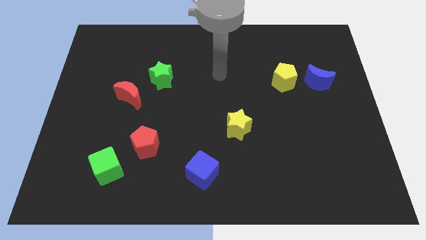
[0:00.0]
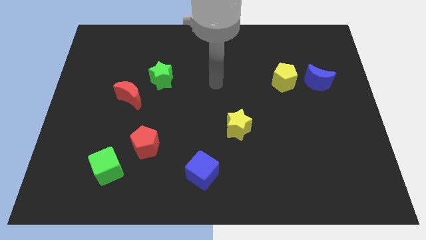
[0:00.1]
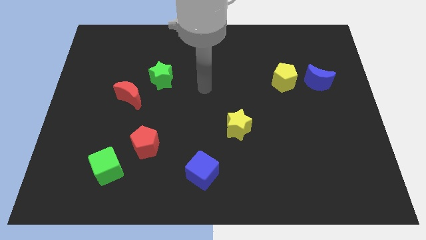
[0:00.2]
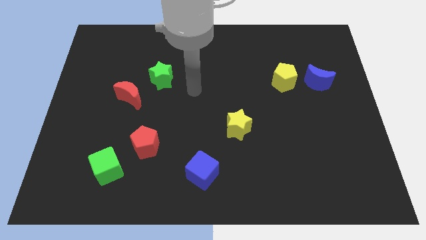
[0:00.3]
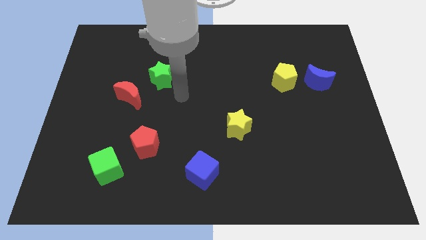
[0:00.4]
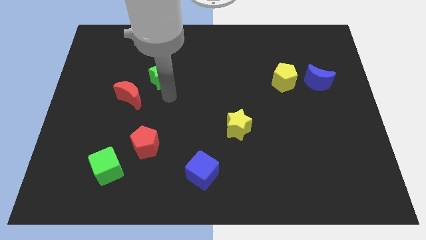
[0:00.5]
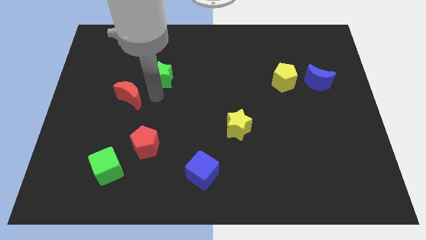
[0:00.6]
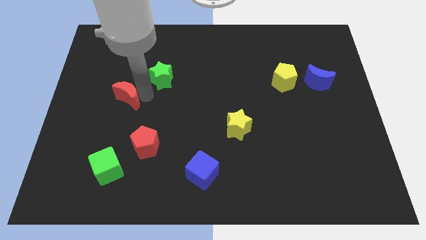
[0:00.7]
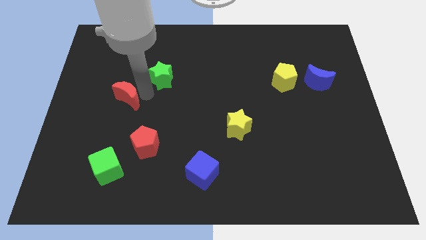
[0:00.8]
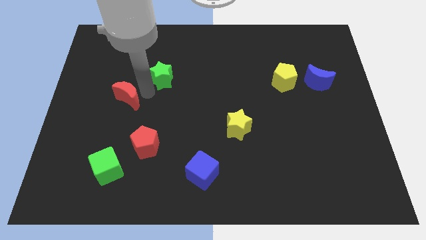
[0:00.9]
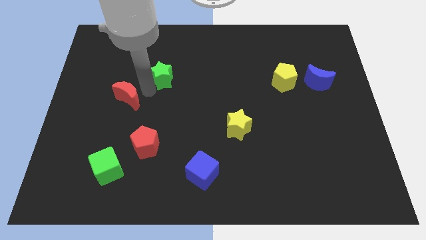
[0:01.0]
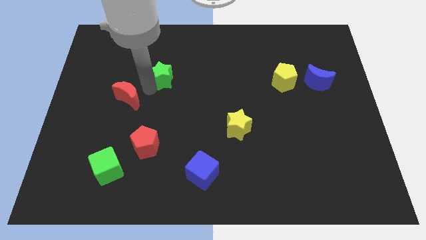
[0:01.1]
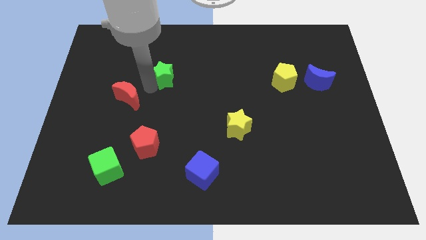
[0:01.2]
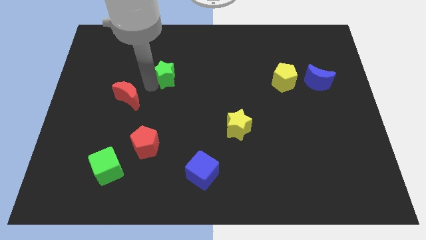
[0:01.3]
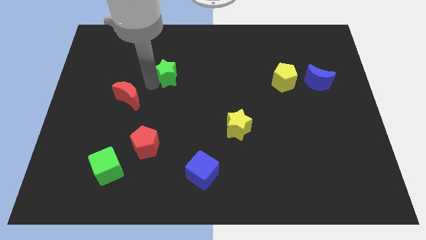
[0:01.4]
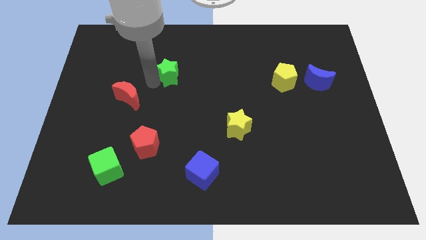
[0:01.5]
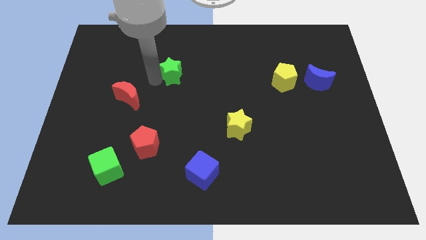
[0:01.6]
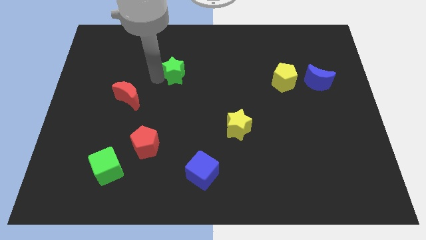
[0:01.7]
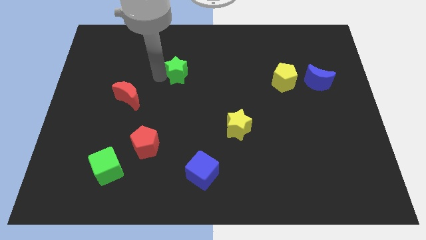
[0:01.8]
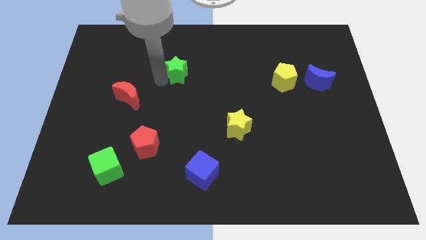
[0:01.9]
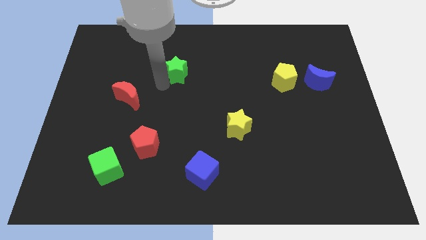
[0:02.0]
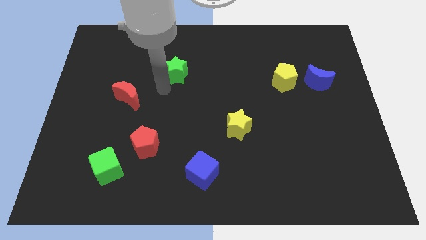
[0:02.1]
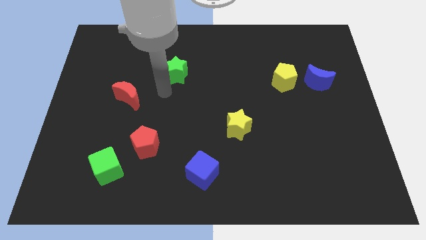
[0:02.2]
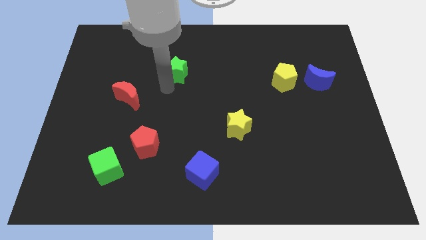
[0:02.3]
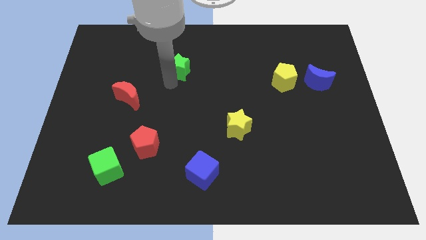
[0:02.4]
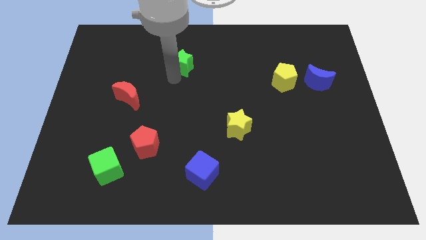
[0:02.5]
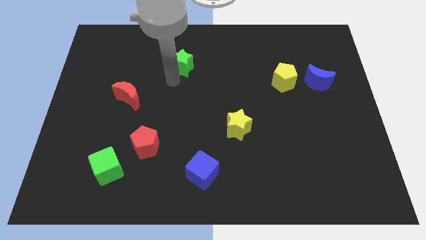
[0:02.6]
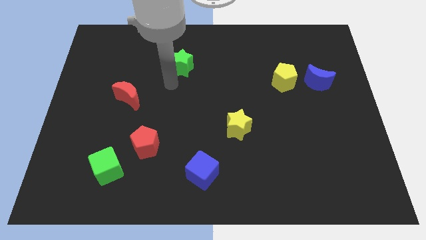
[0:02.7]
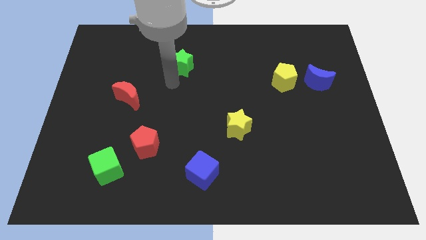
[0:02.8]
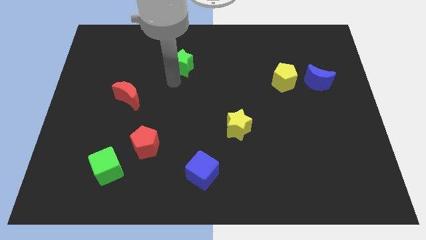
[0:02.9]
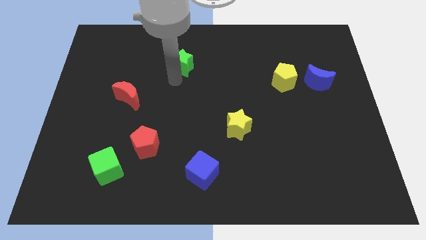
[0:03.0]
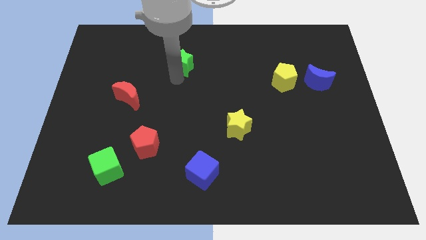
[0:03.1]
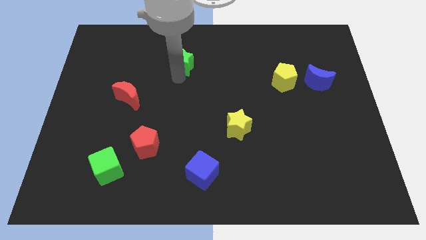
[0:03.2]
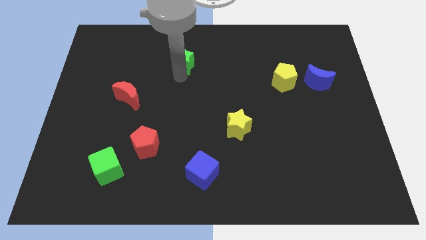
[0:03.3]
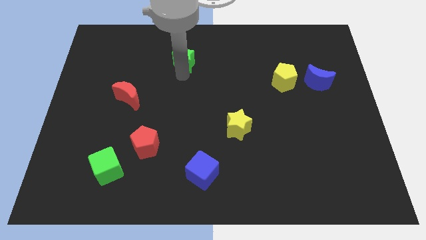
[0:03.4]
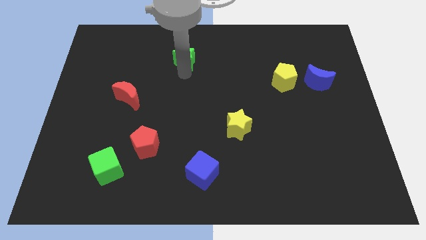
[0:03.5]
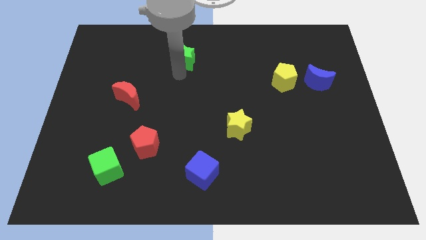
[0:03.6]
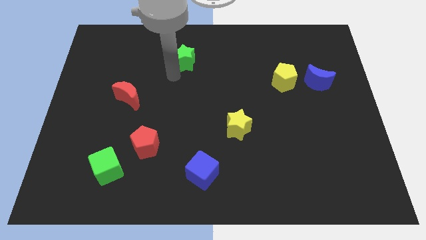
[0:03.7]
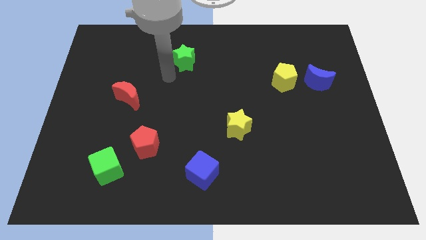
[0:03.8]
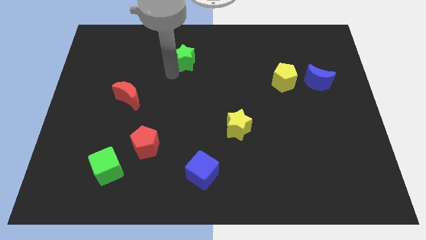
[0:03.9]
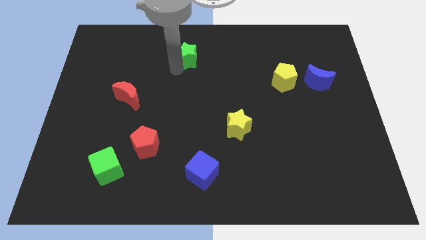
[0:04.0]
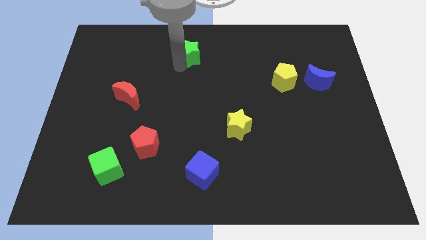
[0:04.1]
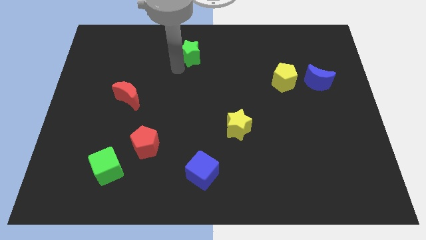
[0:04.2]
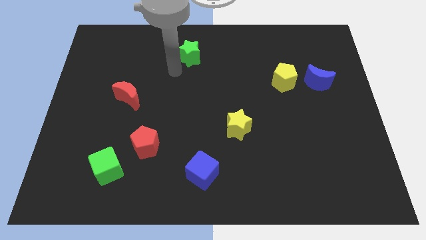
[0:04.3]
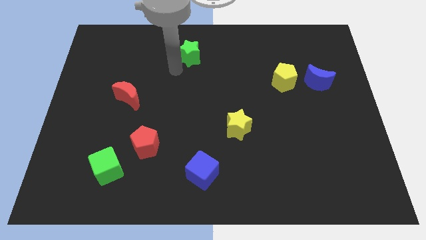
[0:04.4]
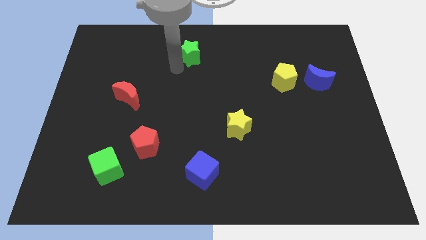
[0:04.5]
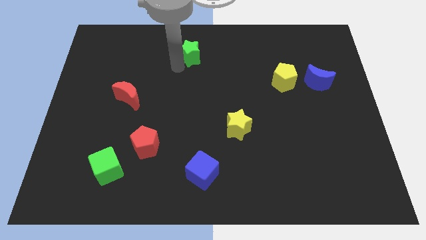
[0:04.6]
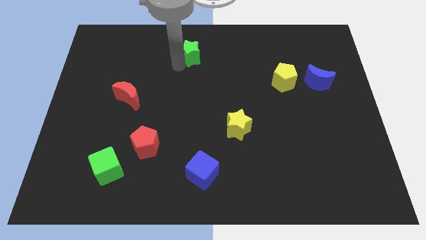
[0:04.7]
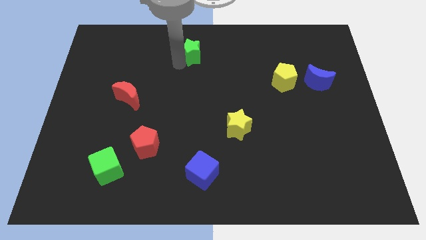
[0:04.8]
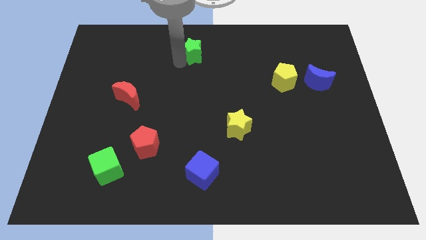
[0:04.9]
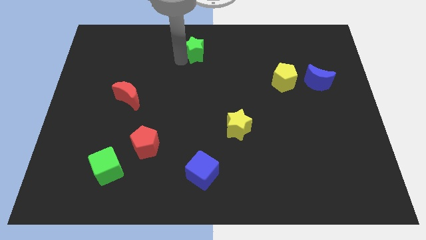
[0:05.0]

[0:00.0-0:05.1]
push the green star to the top side

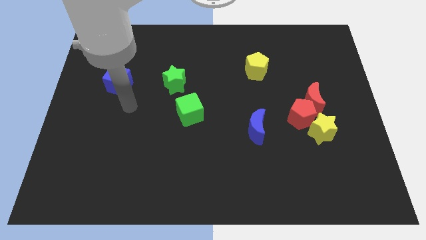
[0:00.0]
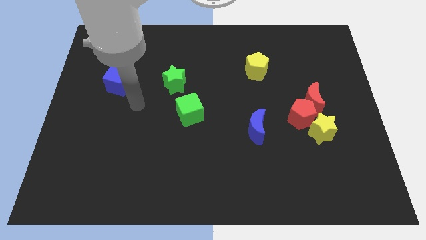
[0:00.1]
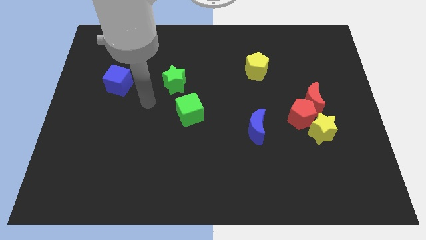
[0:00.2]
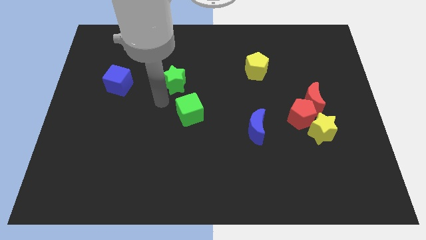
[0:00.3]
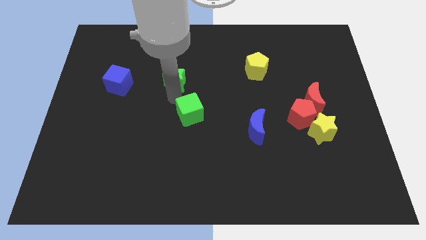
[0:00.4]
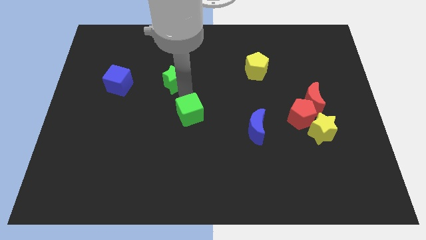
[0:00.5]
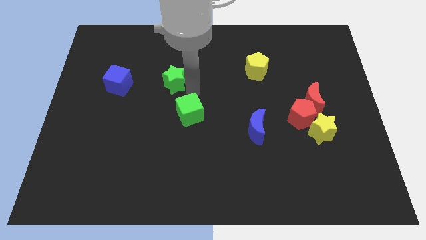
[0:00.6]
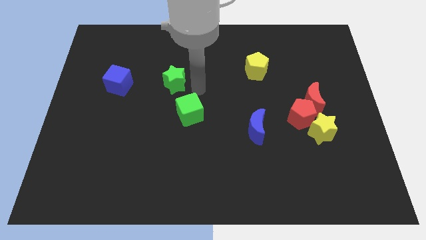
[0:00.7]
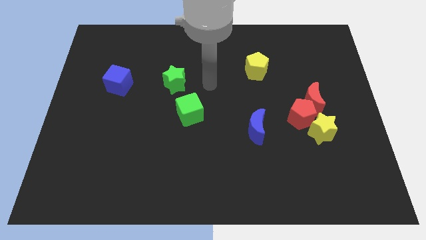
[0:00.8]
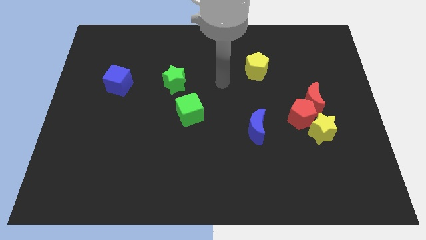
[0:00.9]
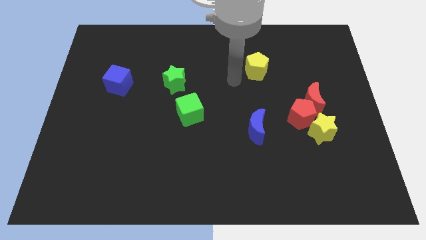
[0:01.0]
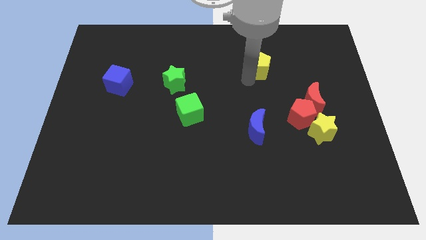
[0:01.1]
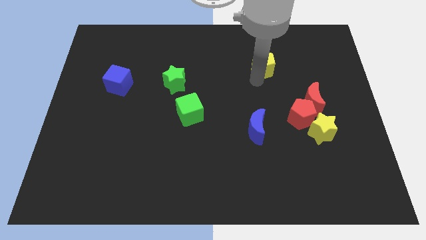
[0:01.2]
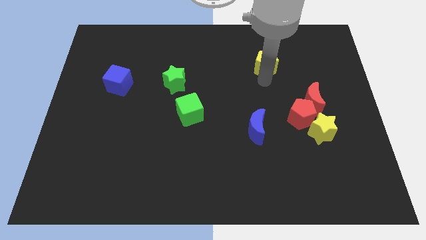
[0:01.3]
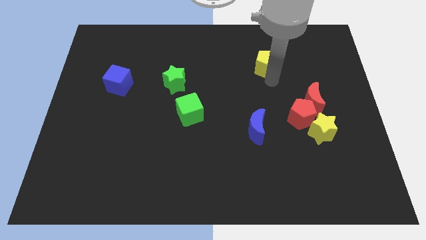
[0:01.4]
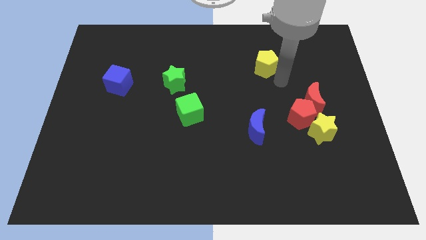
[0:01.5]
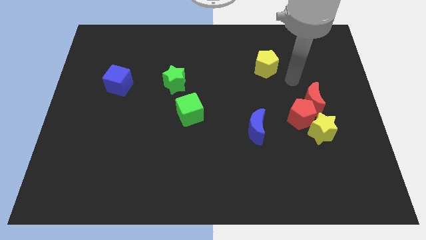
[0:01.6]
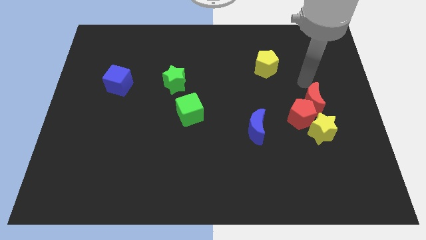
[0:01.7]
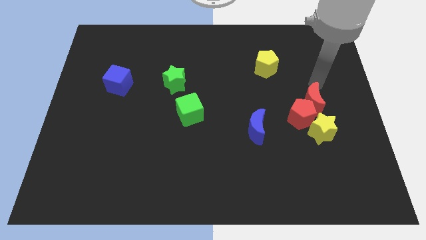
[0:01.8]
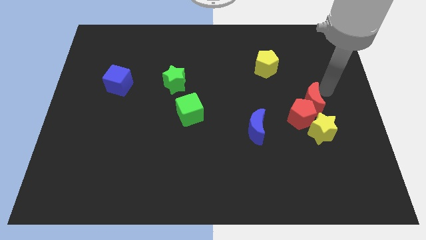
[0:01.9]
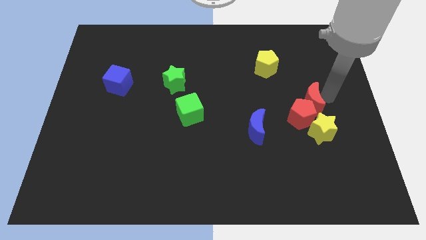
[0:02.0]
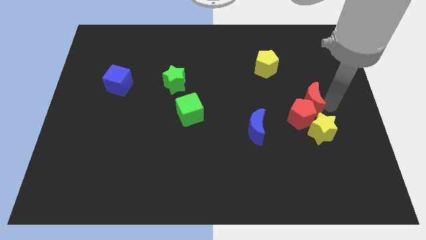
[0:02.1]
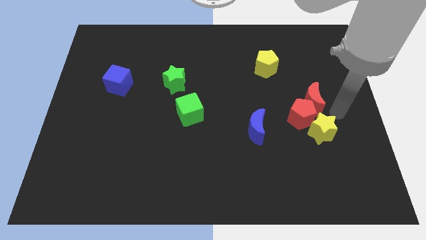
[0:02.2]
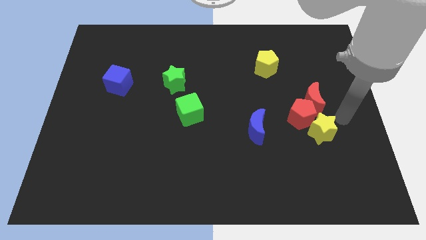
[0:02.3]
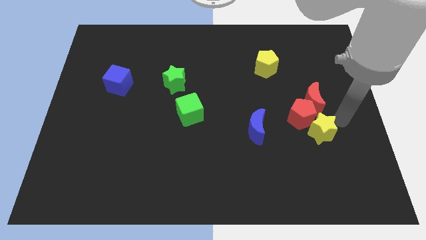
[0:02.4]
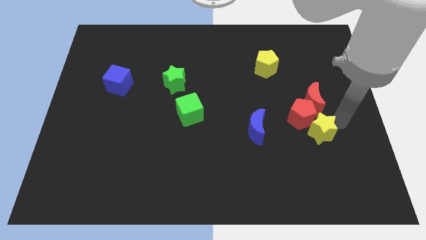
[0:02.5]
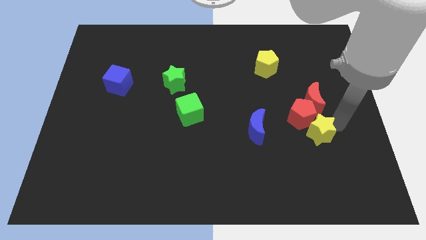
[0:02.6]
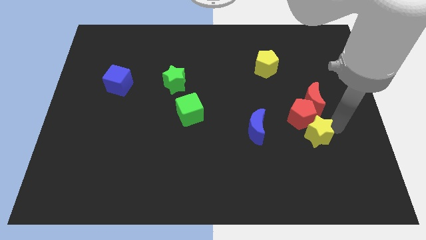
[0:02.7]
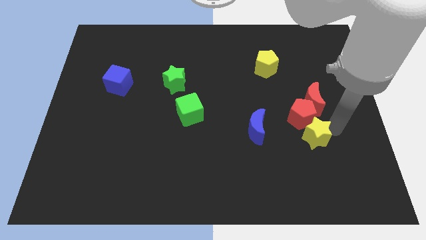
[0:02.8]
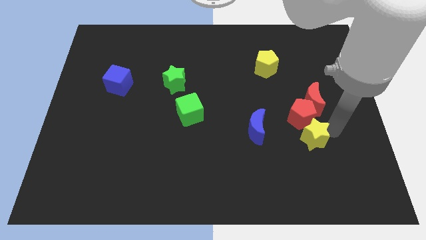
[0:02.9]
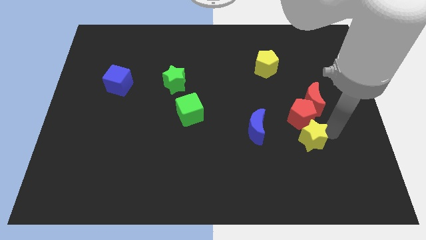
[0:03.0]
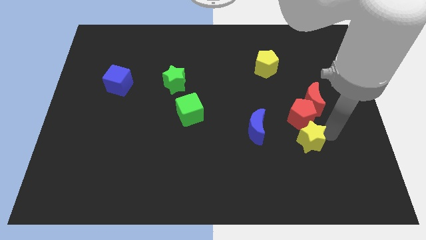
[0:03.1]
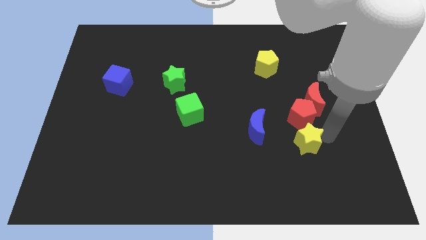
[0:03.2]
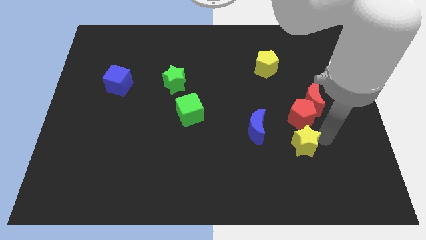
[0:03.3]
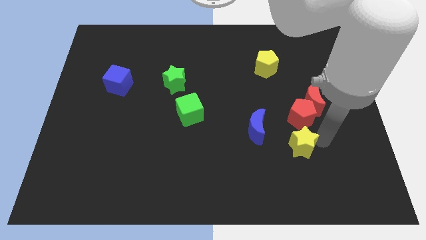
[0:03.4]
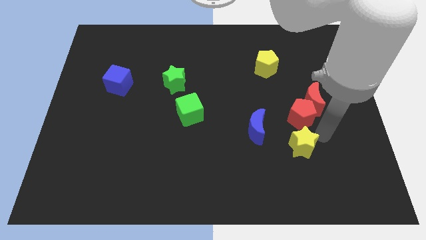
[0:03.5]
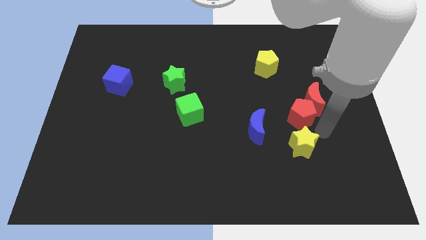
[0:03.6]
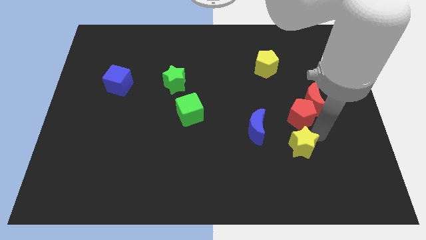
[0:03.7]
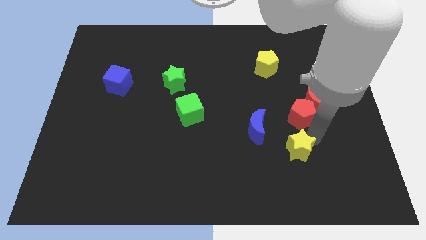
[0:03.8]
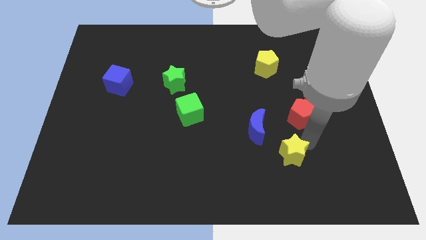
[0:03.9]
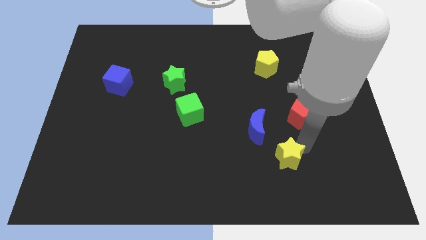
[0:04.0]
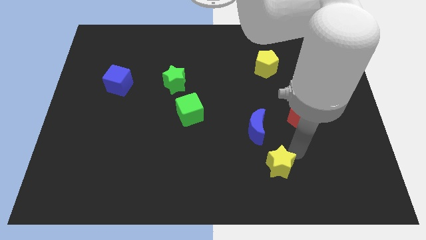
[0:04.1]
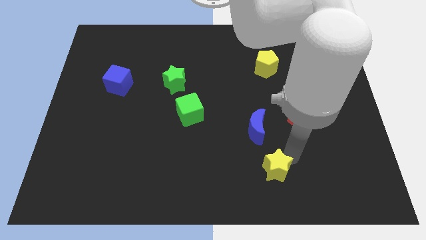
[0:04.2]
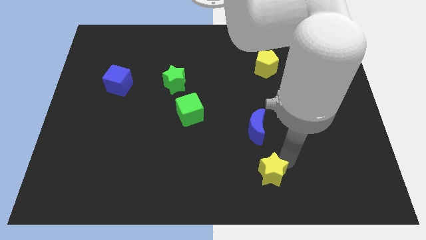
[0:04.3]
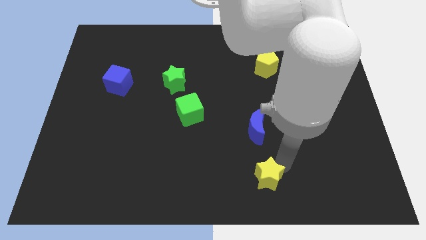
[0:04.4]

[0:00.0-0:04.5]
put the yellow star to the bottom
